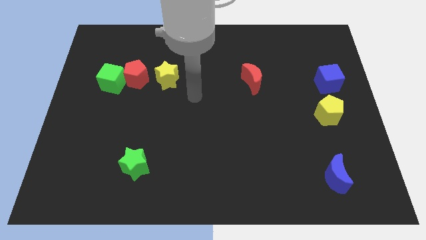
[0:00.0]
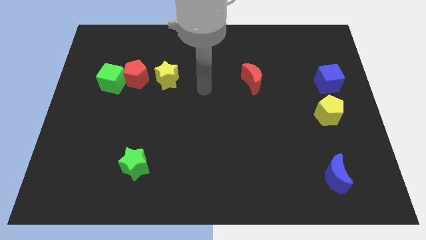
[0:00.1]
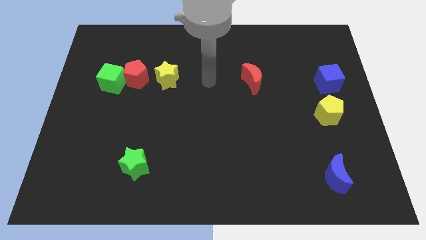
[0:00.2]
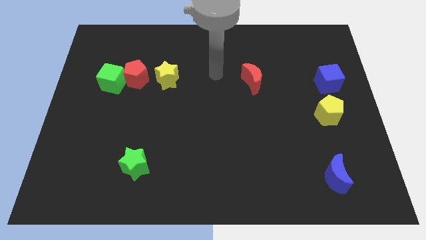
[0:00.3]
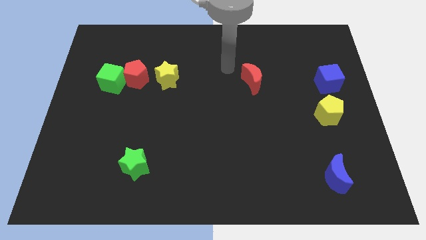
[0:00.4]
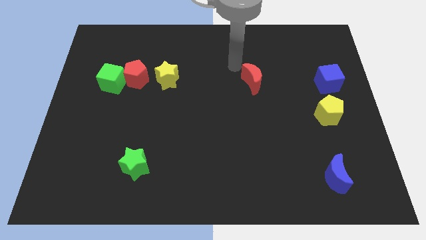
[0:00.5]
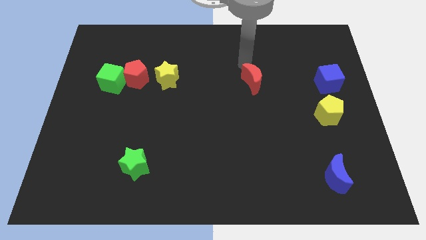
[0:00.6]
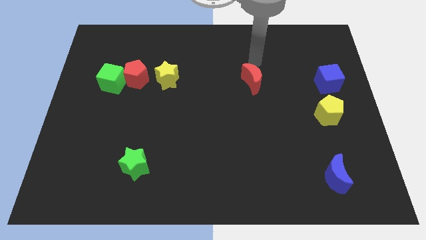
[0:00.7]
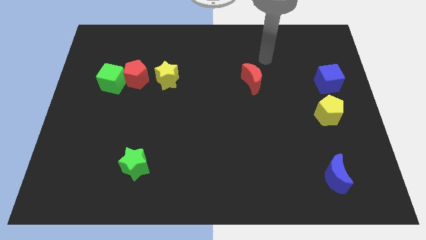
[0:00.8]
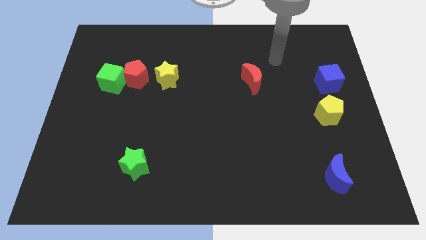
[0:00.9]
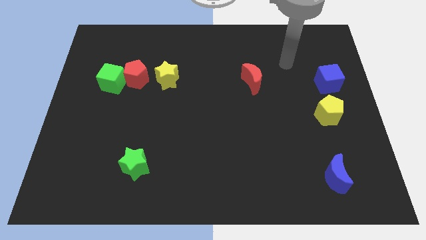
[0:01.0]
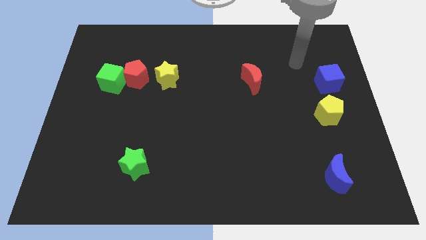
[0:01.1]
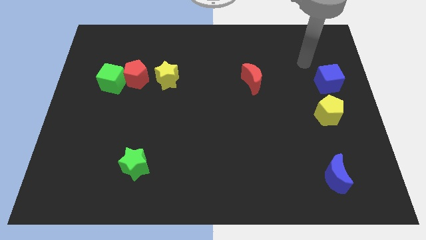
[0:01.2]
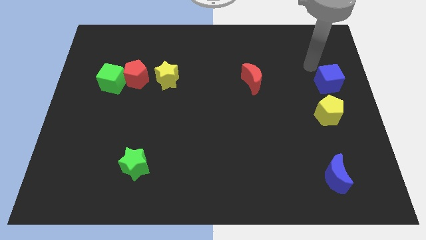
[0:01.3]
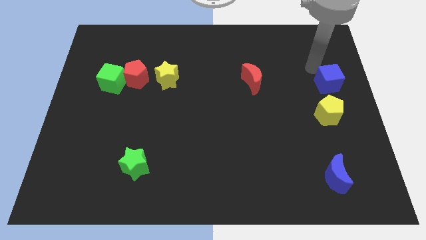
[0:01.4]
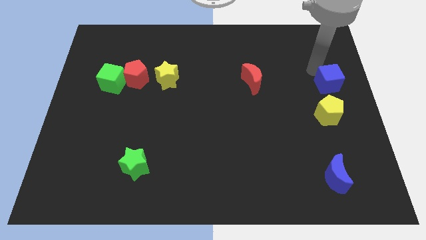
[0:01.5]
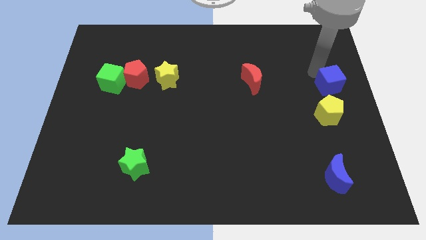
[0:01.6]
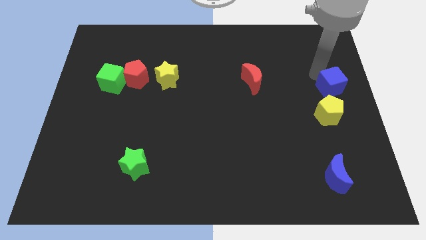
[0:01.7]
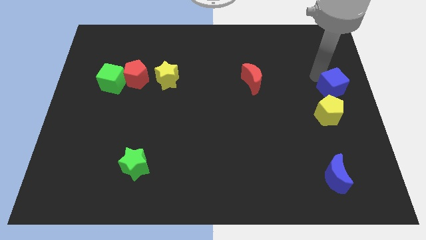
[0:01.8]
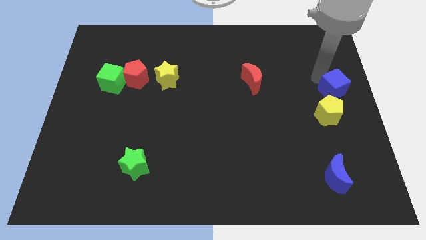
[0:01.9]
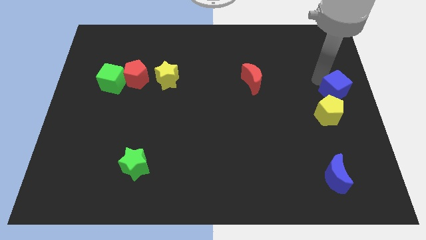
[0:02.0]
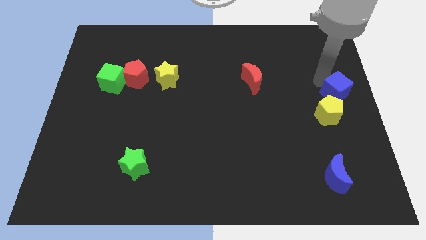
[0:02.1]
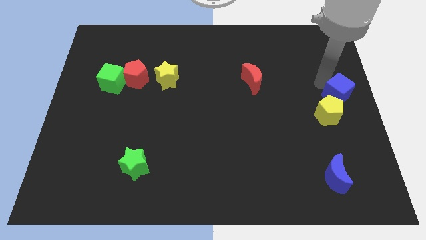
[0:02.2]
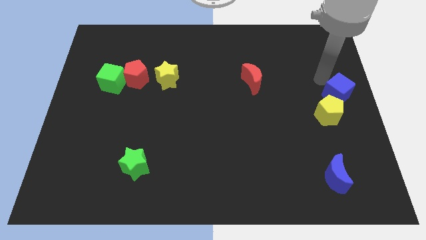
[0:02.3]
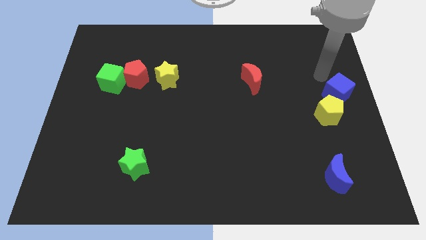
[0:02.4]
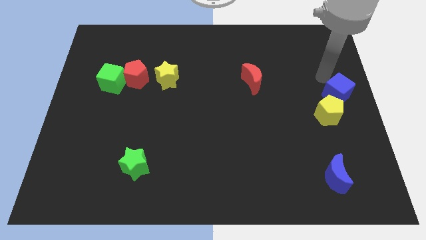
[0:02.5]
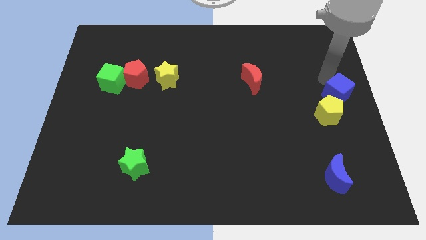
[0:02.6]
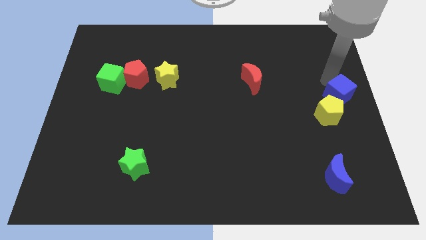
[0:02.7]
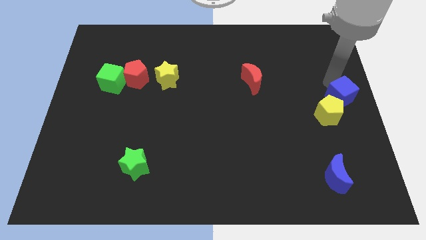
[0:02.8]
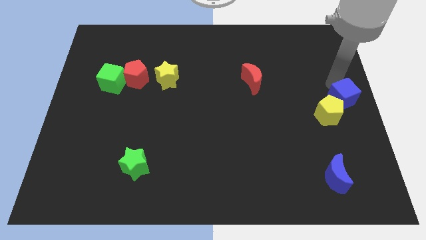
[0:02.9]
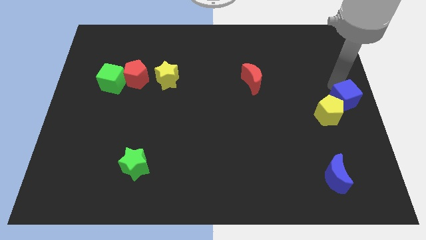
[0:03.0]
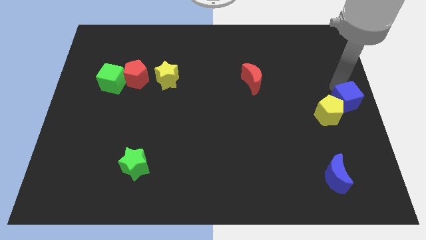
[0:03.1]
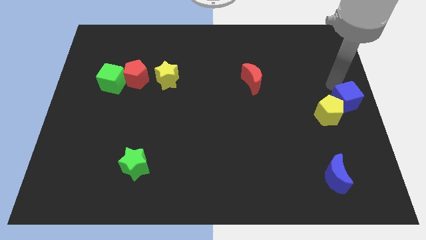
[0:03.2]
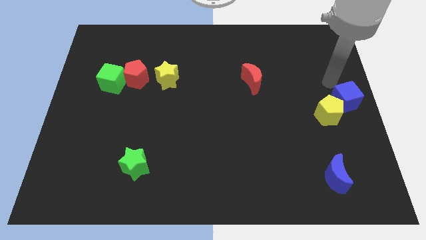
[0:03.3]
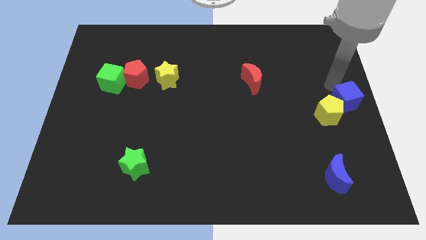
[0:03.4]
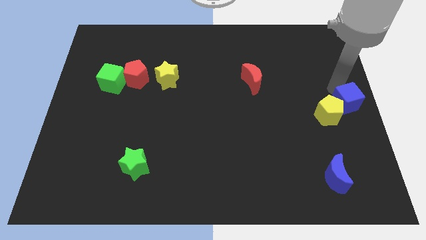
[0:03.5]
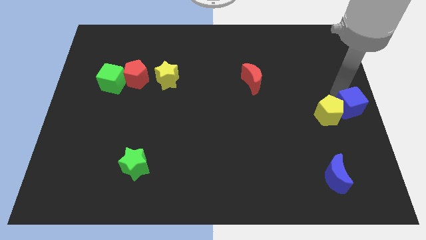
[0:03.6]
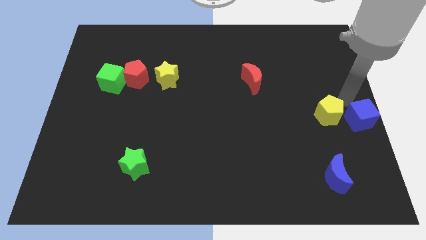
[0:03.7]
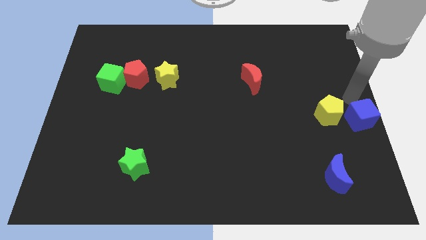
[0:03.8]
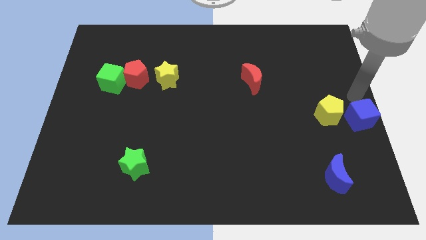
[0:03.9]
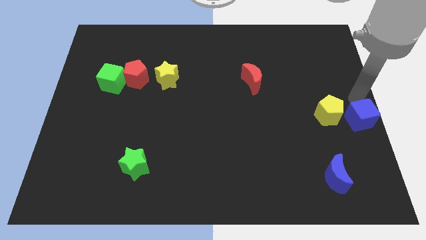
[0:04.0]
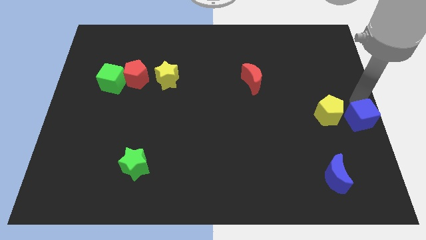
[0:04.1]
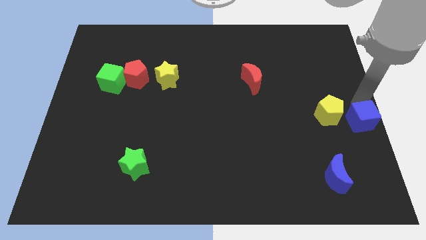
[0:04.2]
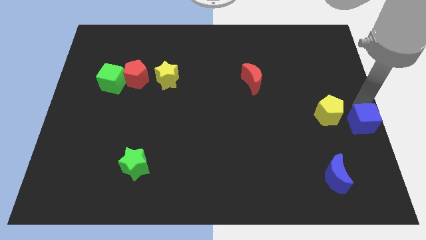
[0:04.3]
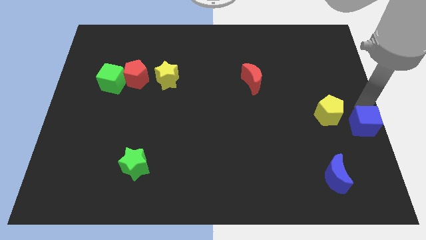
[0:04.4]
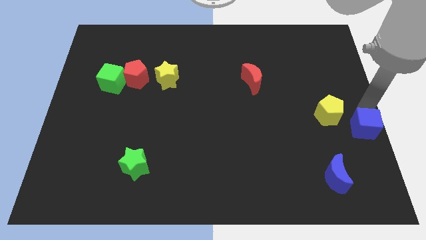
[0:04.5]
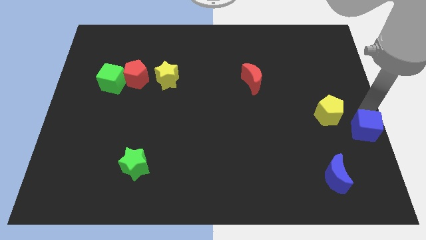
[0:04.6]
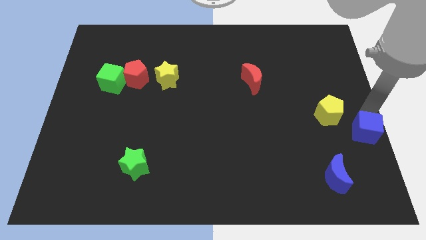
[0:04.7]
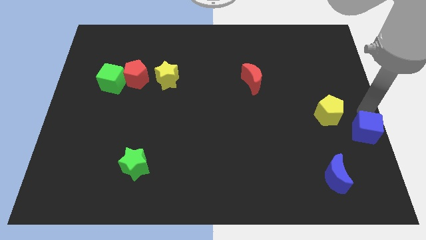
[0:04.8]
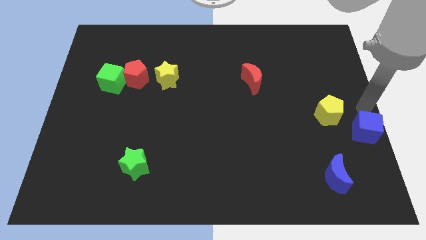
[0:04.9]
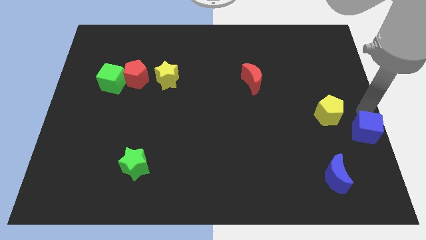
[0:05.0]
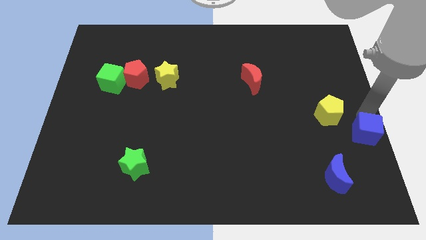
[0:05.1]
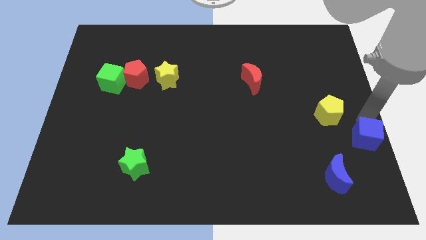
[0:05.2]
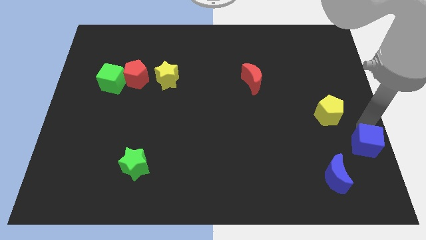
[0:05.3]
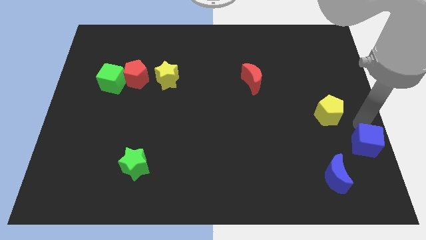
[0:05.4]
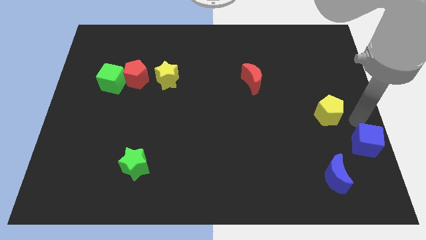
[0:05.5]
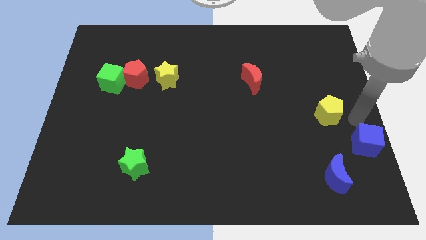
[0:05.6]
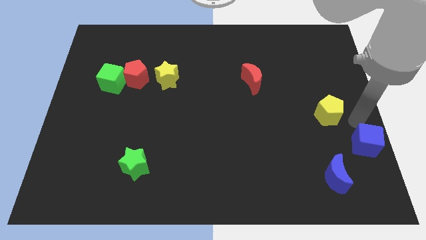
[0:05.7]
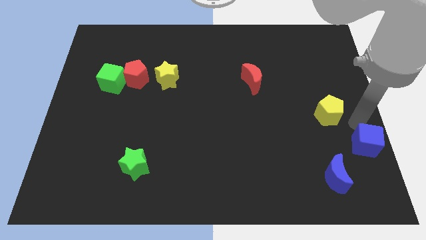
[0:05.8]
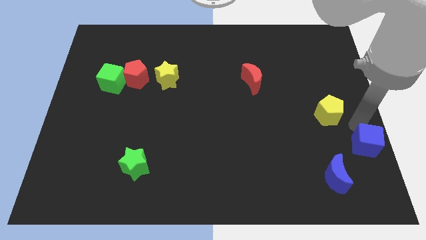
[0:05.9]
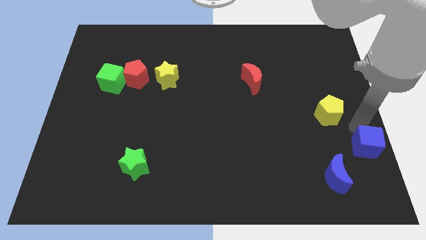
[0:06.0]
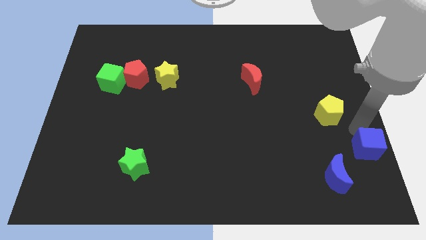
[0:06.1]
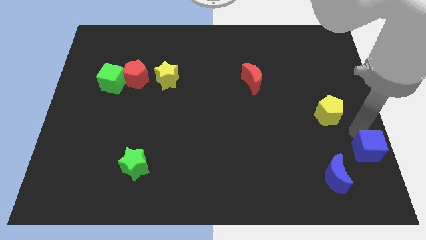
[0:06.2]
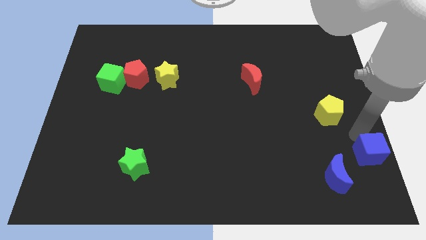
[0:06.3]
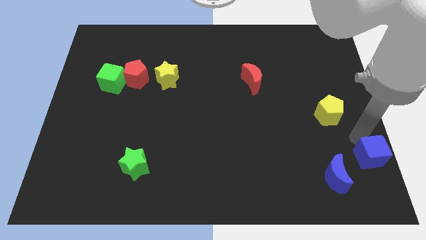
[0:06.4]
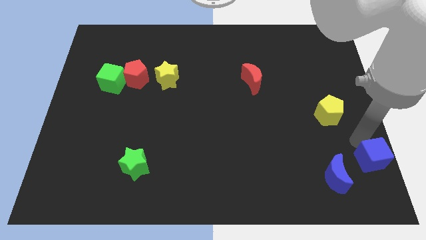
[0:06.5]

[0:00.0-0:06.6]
move the blue cube to the lower right corner
